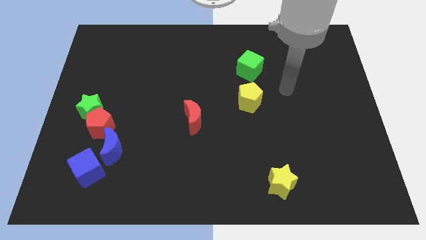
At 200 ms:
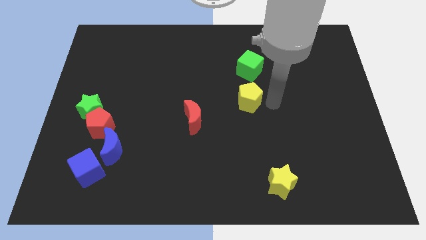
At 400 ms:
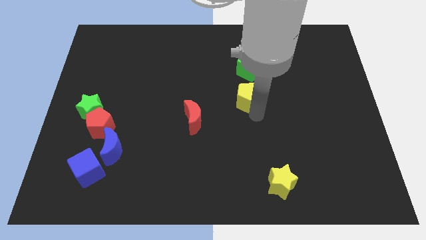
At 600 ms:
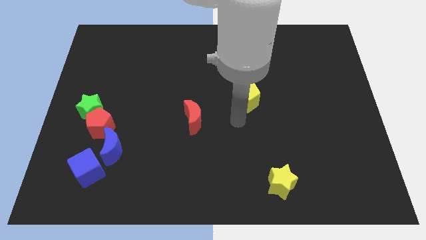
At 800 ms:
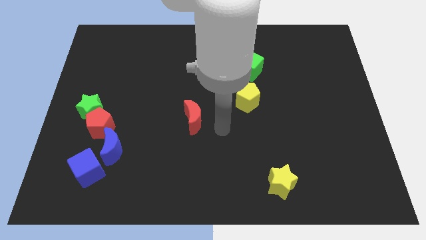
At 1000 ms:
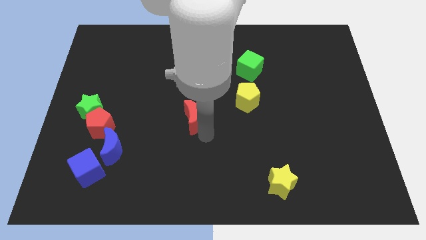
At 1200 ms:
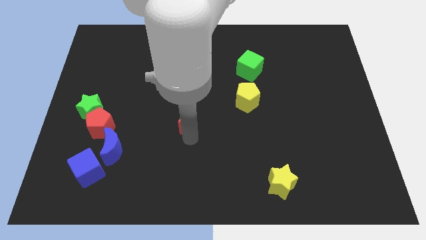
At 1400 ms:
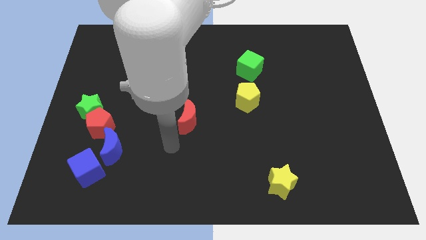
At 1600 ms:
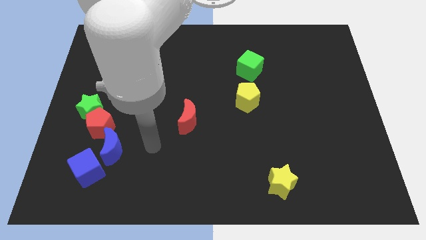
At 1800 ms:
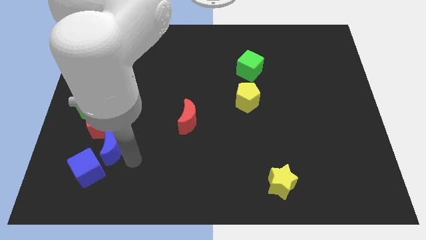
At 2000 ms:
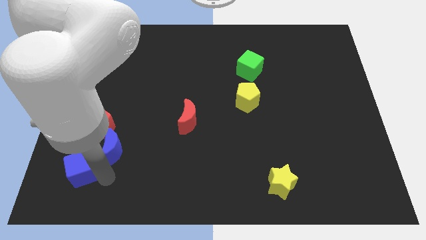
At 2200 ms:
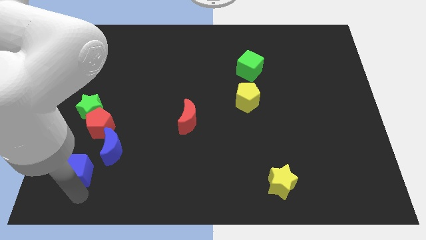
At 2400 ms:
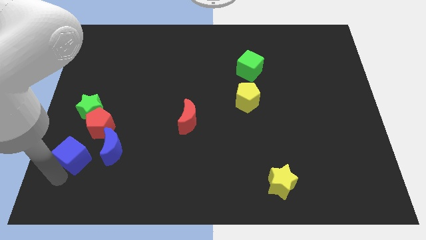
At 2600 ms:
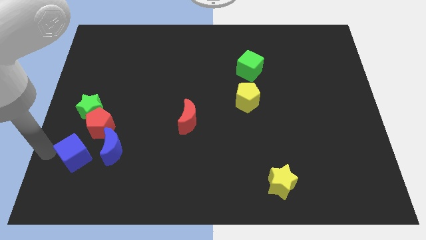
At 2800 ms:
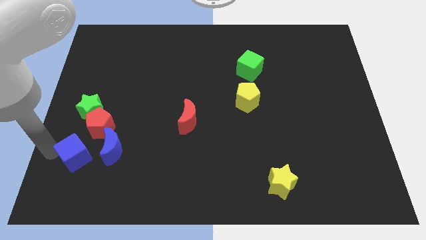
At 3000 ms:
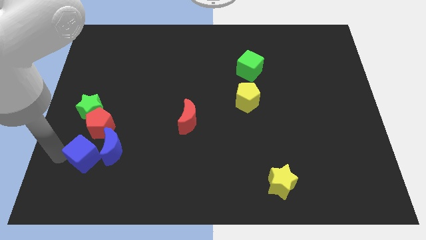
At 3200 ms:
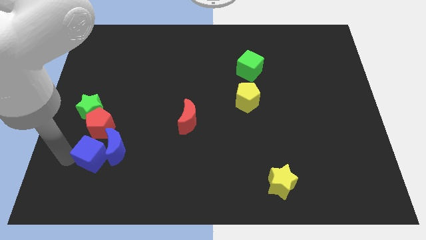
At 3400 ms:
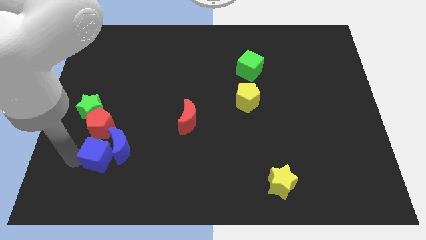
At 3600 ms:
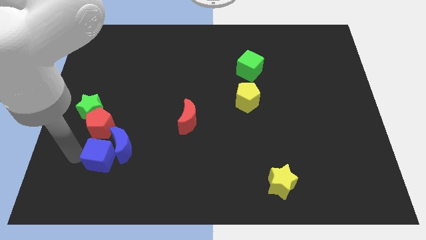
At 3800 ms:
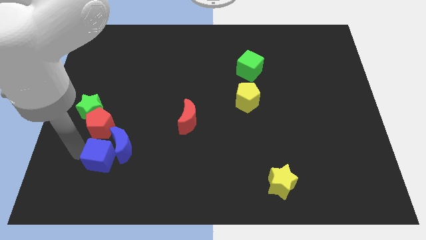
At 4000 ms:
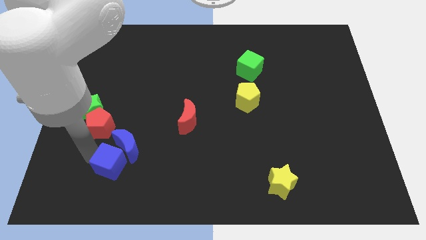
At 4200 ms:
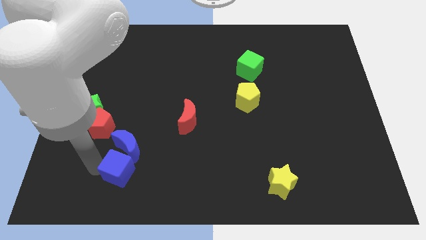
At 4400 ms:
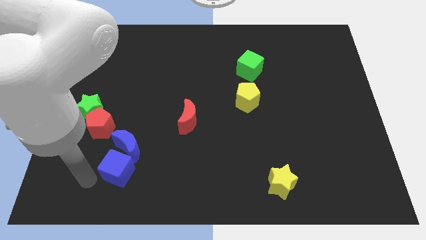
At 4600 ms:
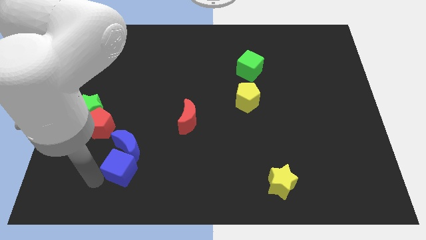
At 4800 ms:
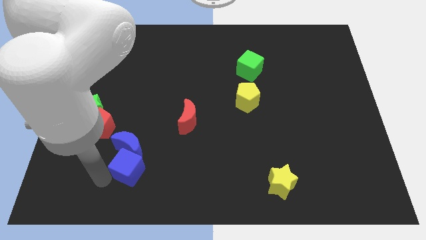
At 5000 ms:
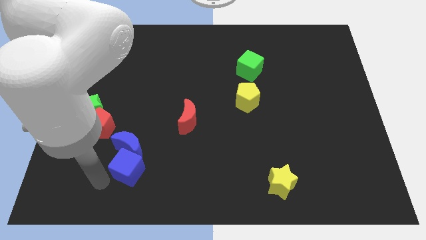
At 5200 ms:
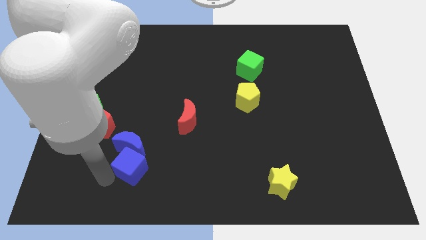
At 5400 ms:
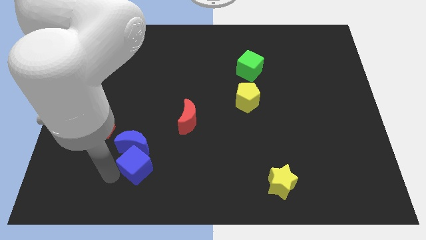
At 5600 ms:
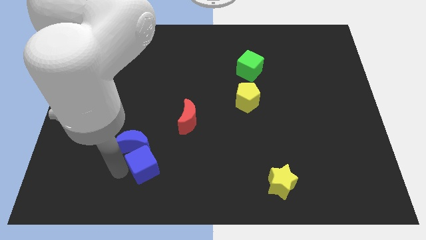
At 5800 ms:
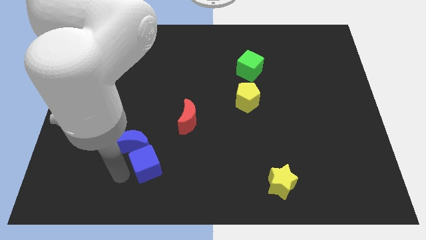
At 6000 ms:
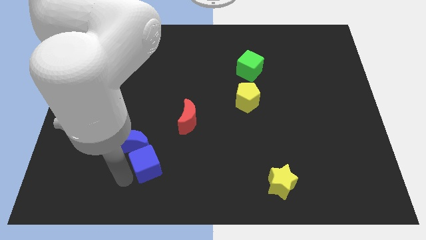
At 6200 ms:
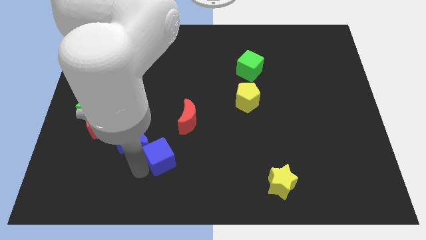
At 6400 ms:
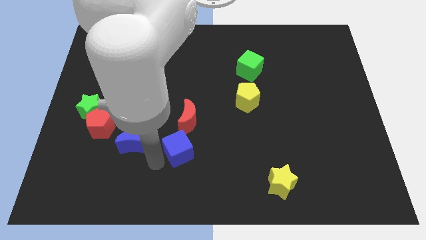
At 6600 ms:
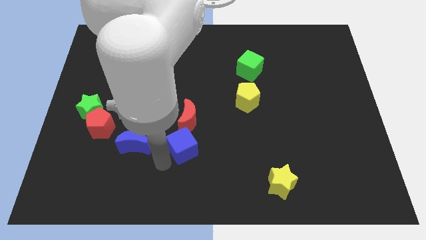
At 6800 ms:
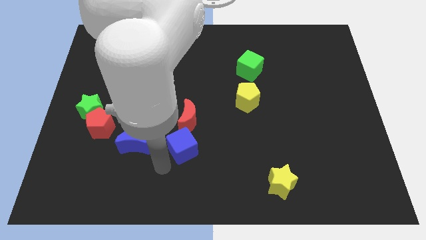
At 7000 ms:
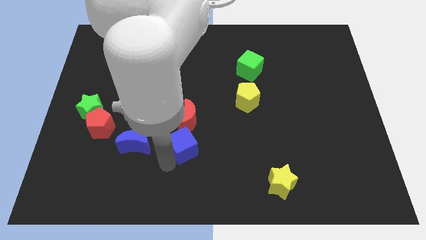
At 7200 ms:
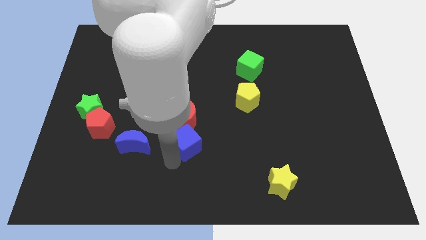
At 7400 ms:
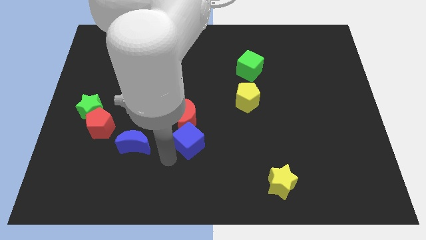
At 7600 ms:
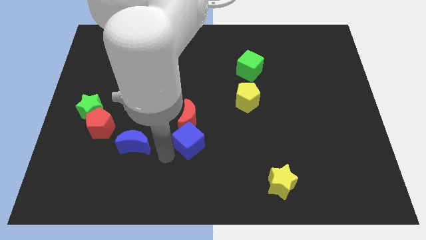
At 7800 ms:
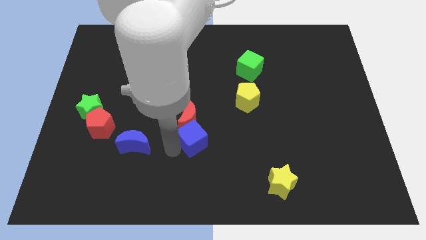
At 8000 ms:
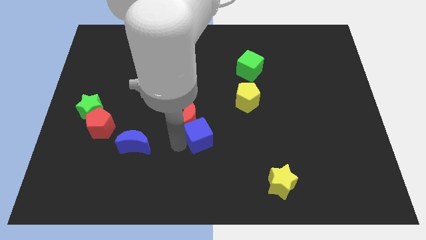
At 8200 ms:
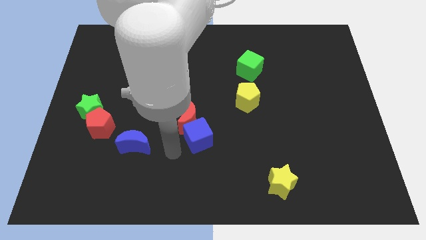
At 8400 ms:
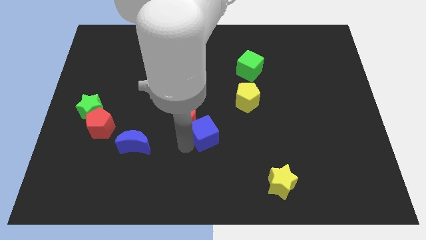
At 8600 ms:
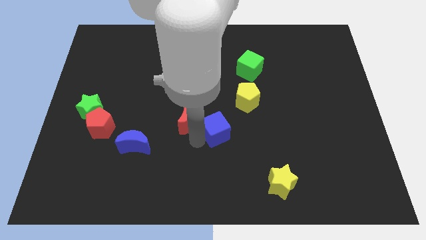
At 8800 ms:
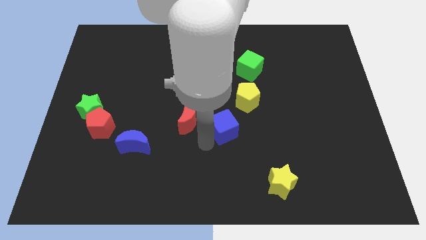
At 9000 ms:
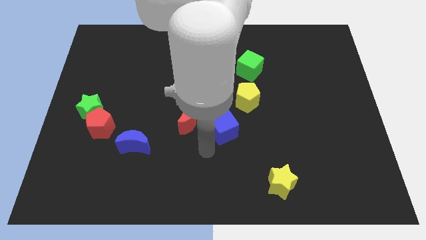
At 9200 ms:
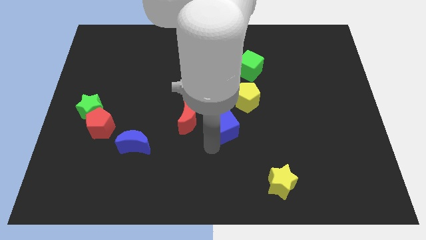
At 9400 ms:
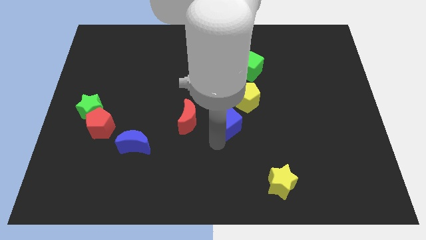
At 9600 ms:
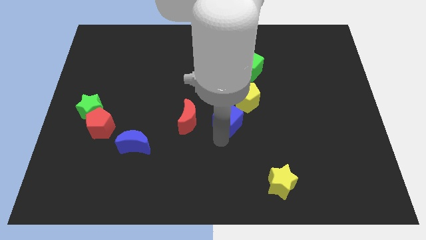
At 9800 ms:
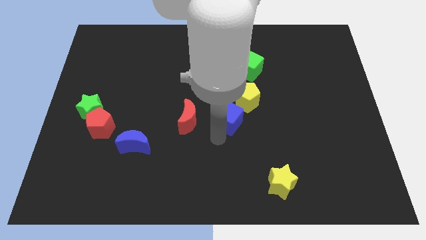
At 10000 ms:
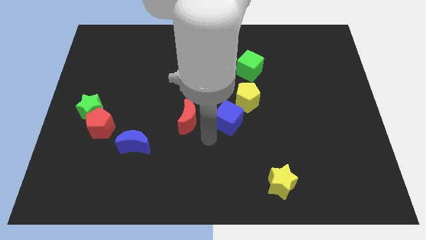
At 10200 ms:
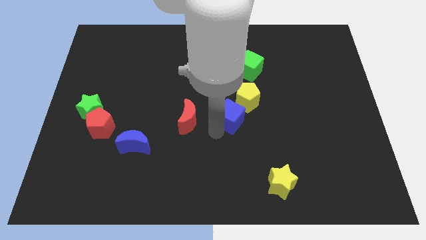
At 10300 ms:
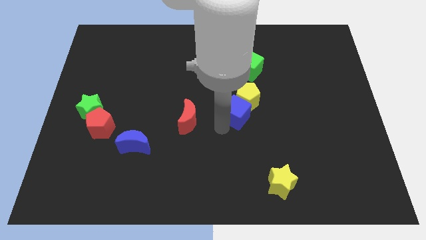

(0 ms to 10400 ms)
put the blue cube to the yellow pentagon

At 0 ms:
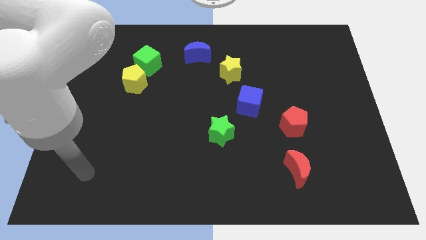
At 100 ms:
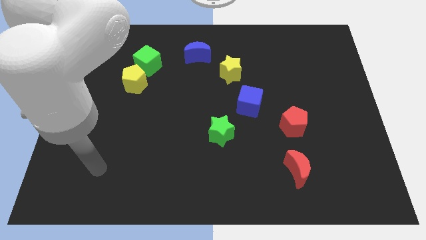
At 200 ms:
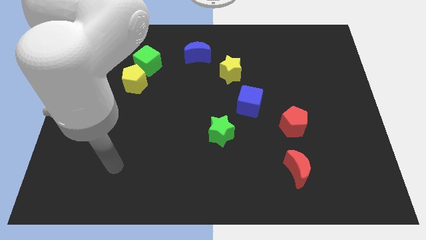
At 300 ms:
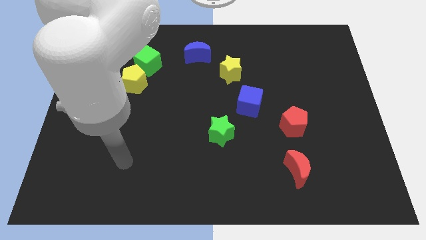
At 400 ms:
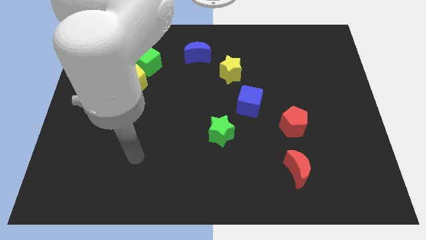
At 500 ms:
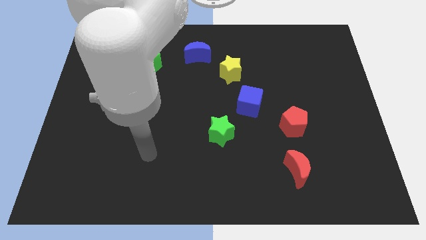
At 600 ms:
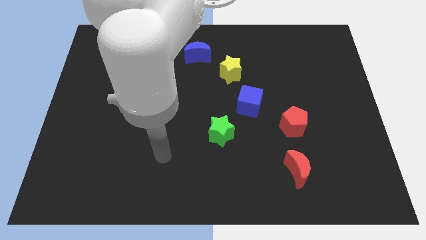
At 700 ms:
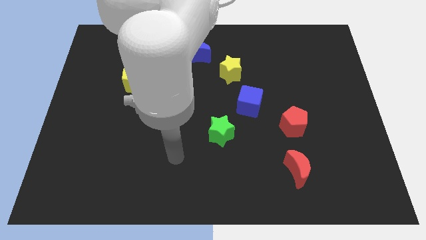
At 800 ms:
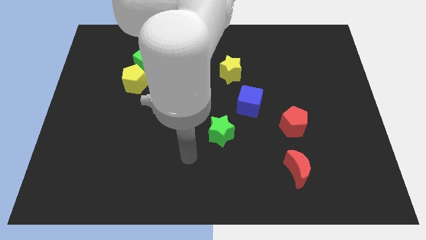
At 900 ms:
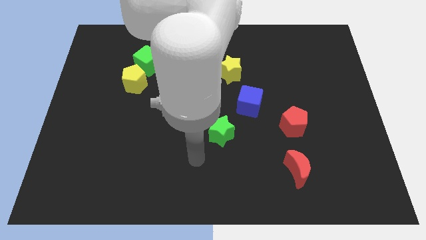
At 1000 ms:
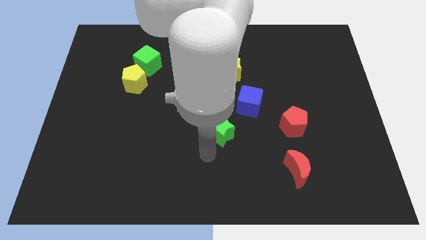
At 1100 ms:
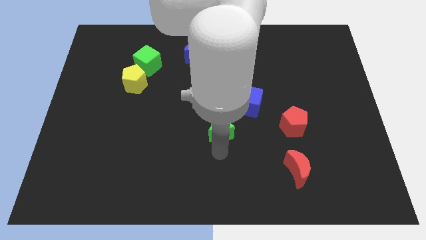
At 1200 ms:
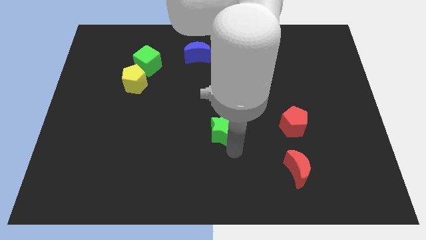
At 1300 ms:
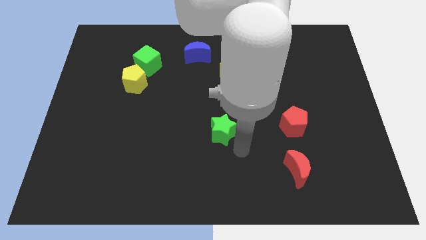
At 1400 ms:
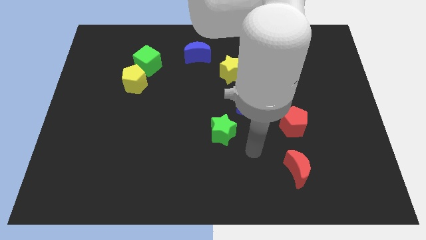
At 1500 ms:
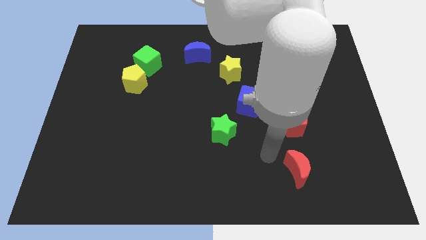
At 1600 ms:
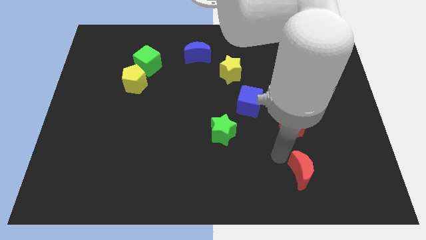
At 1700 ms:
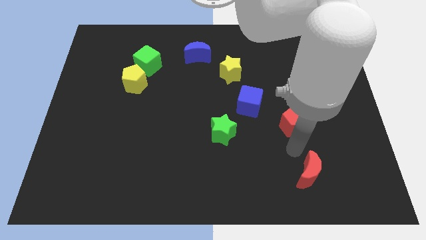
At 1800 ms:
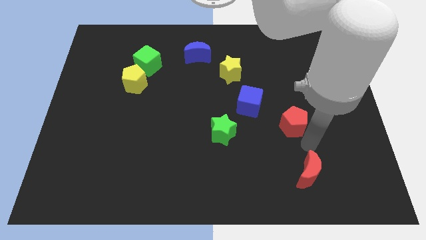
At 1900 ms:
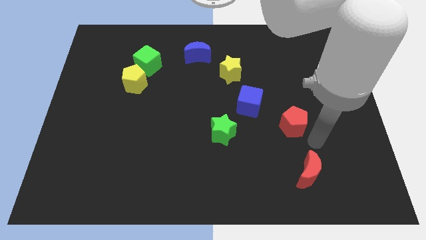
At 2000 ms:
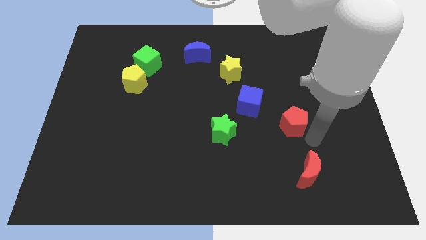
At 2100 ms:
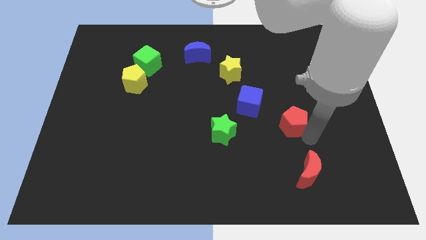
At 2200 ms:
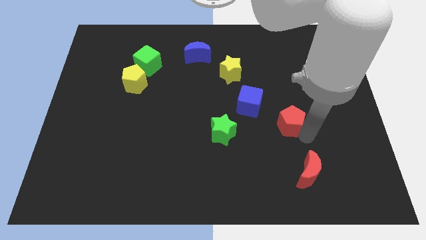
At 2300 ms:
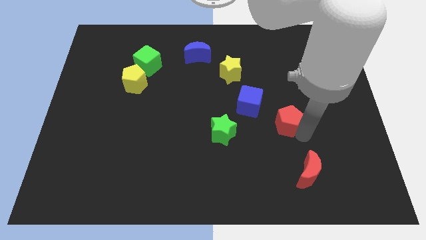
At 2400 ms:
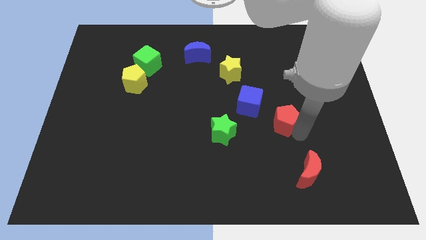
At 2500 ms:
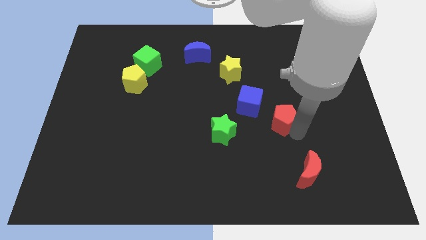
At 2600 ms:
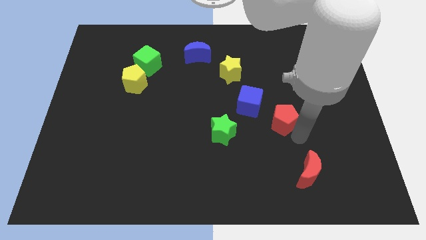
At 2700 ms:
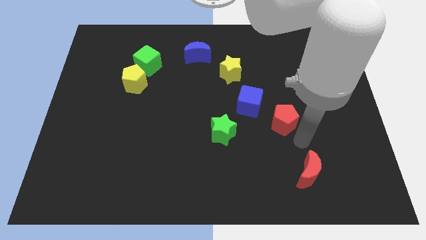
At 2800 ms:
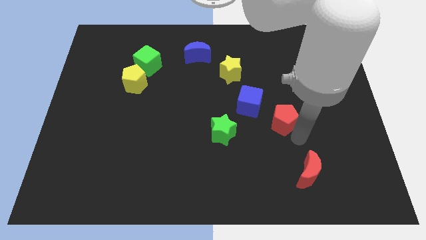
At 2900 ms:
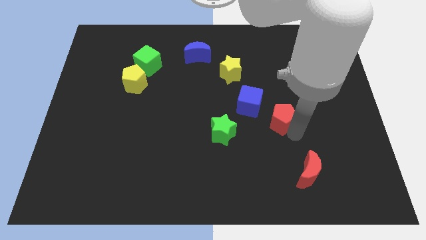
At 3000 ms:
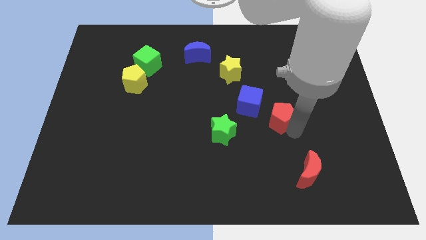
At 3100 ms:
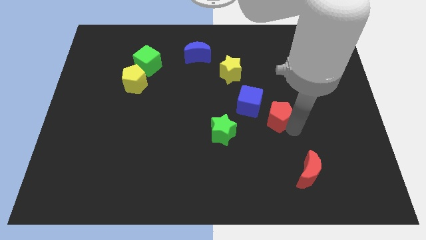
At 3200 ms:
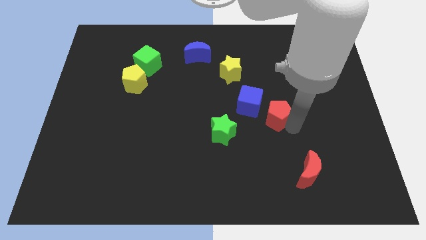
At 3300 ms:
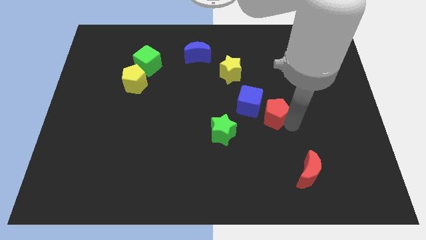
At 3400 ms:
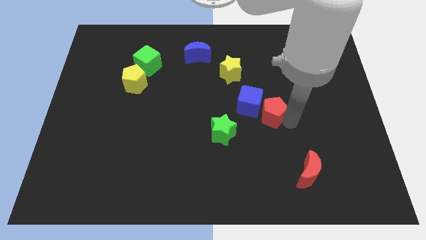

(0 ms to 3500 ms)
push the red pentagon next to the blue cube

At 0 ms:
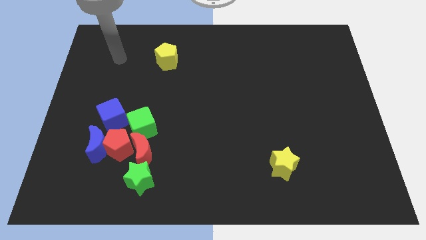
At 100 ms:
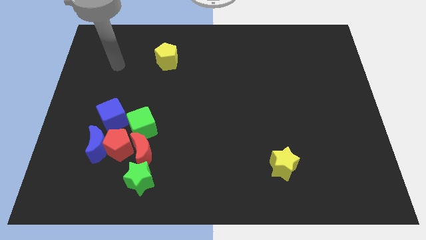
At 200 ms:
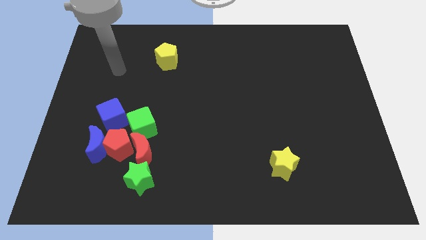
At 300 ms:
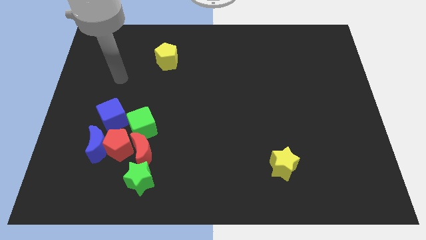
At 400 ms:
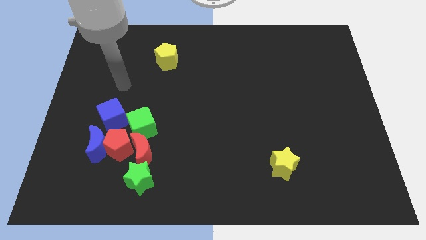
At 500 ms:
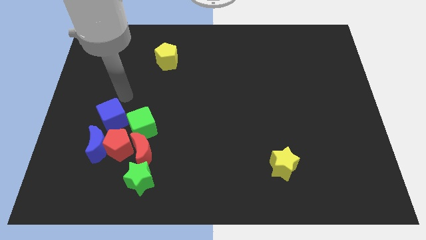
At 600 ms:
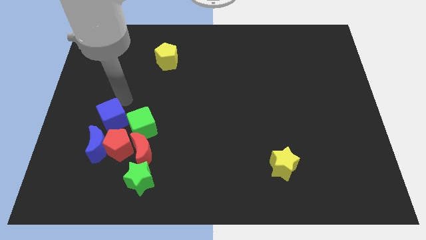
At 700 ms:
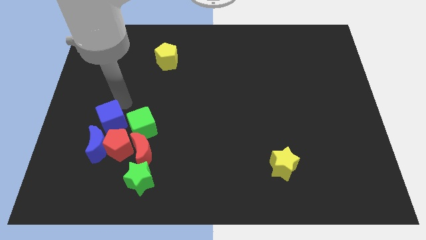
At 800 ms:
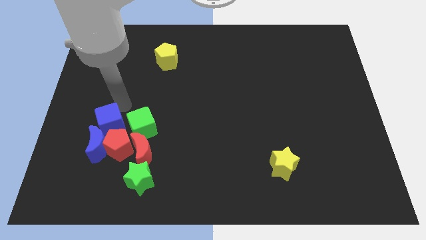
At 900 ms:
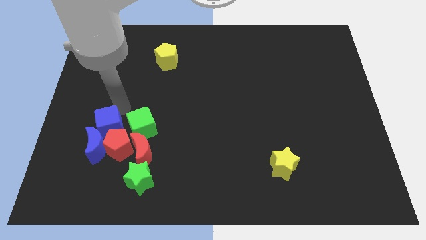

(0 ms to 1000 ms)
slide the blue cube to the blue moon
